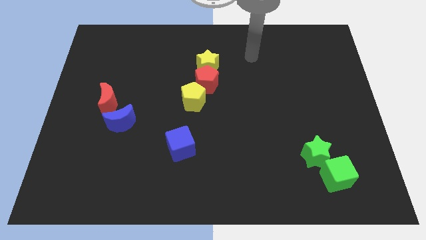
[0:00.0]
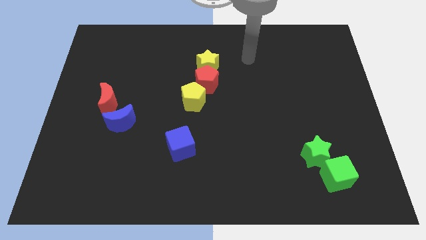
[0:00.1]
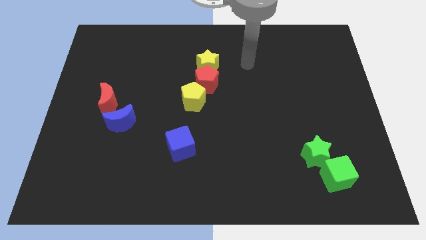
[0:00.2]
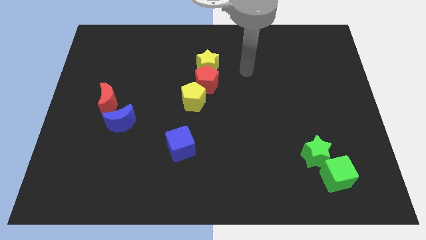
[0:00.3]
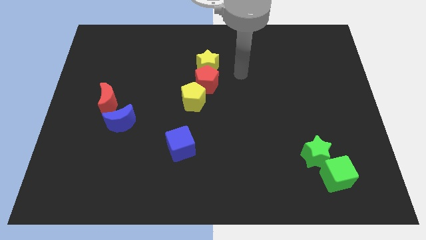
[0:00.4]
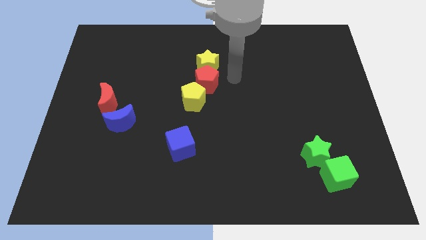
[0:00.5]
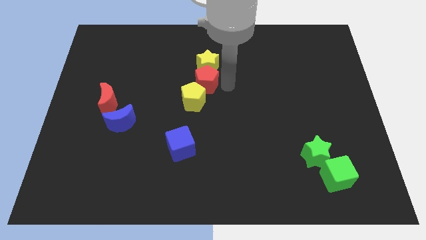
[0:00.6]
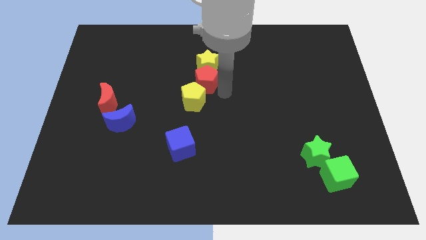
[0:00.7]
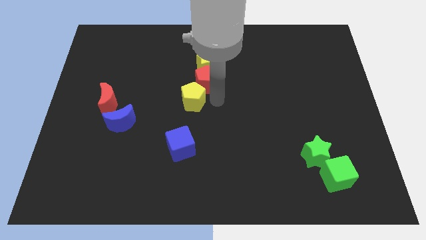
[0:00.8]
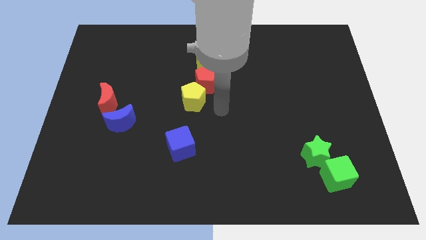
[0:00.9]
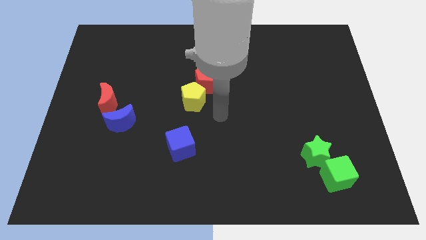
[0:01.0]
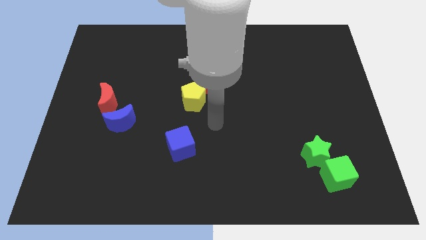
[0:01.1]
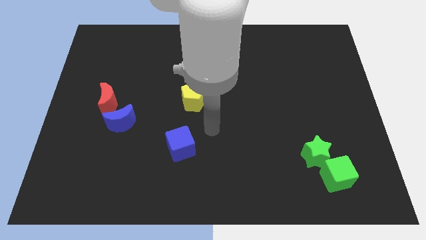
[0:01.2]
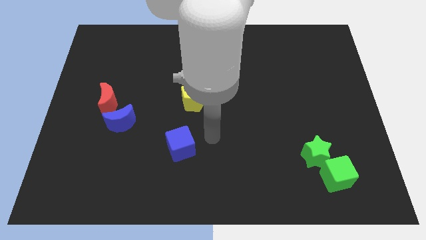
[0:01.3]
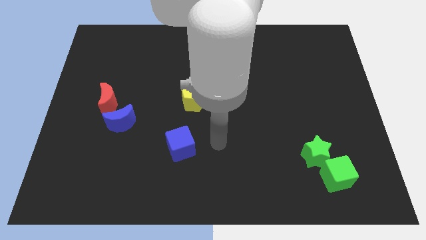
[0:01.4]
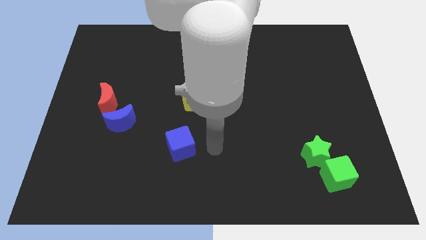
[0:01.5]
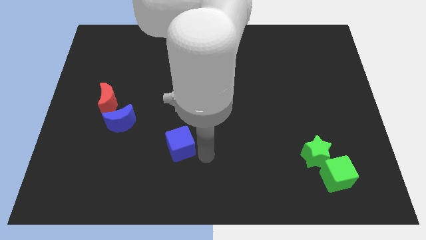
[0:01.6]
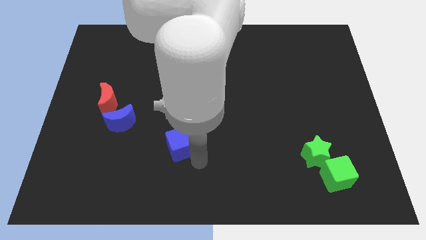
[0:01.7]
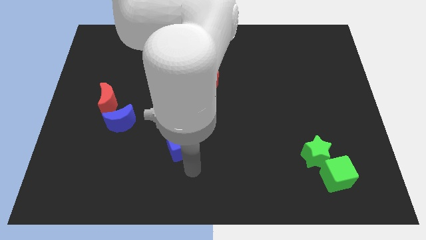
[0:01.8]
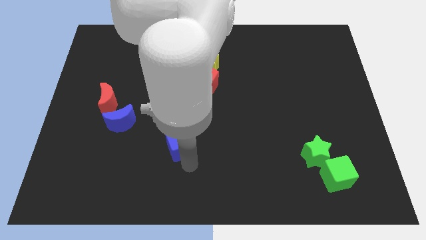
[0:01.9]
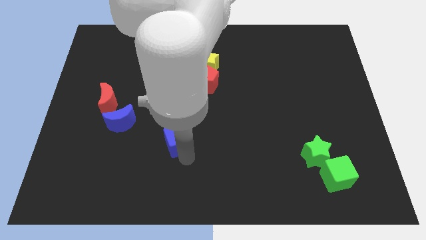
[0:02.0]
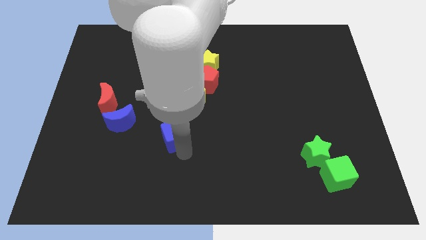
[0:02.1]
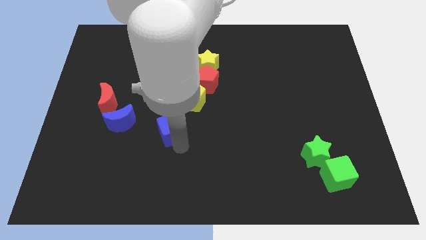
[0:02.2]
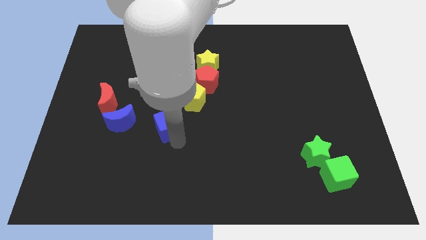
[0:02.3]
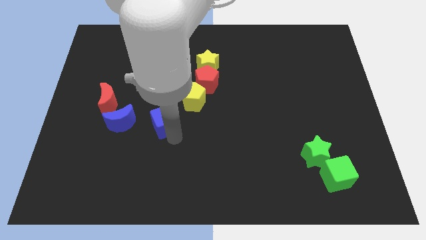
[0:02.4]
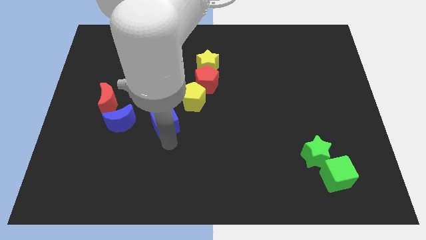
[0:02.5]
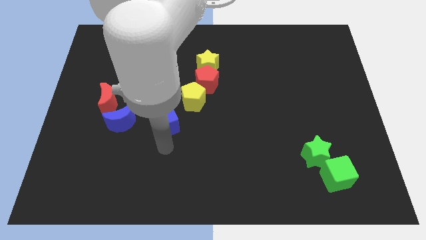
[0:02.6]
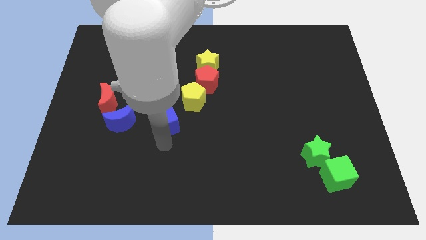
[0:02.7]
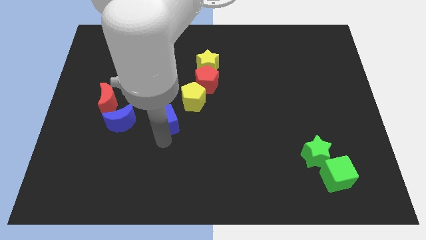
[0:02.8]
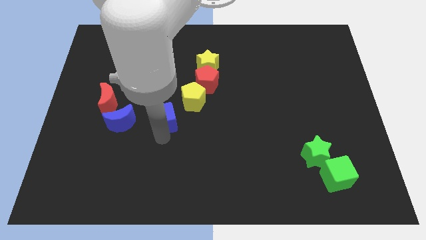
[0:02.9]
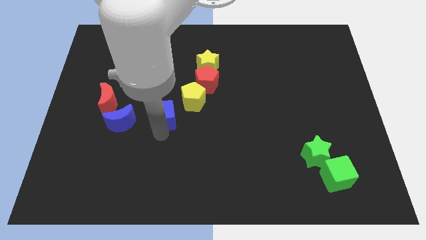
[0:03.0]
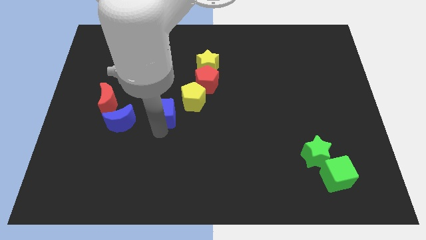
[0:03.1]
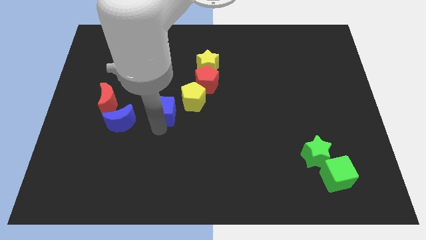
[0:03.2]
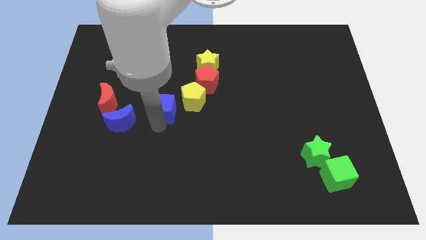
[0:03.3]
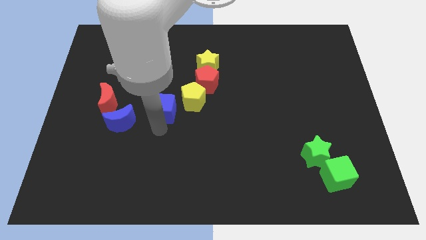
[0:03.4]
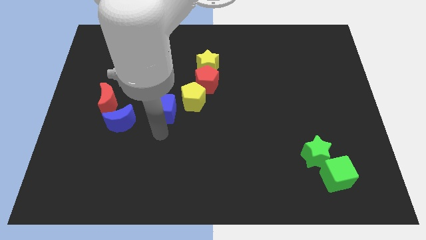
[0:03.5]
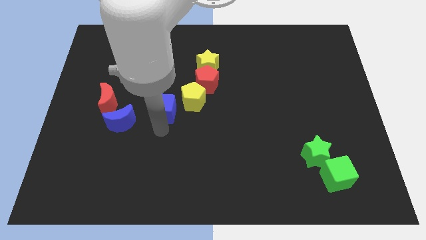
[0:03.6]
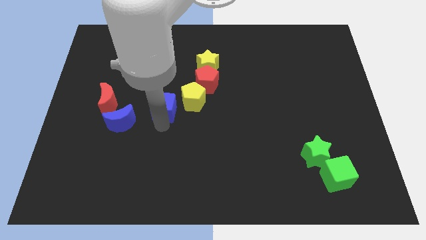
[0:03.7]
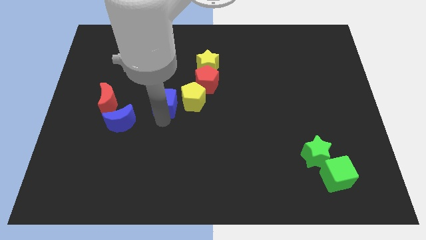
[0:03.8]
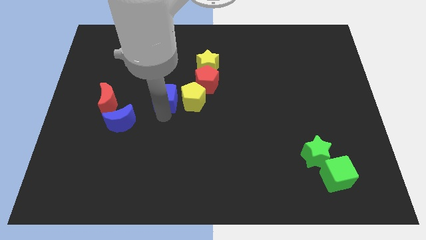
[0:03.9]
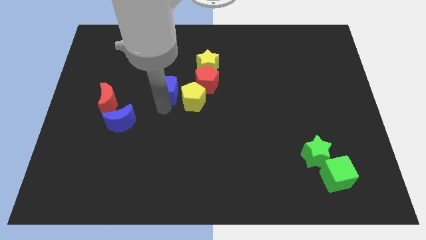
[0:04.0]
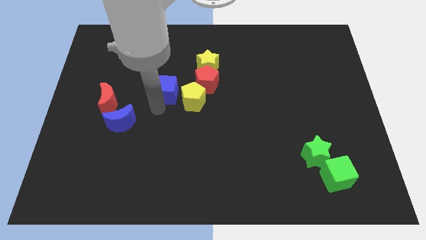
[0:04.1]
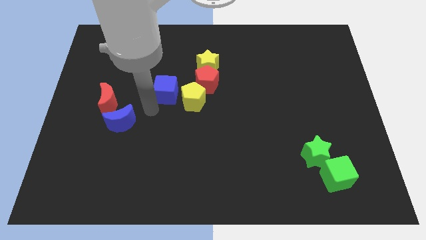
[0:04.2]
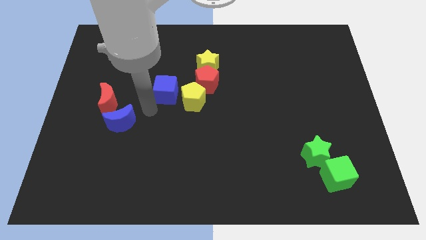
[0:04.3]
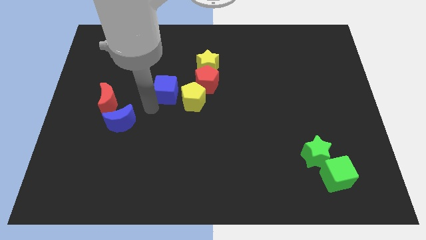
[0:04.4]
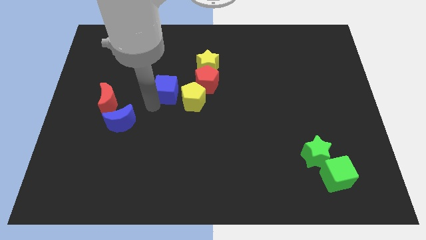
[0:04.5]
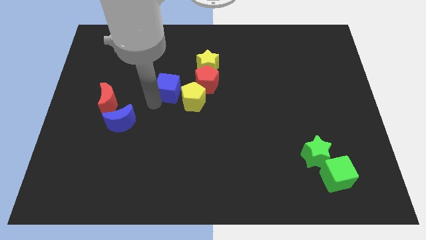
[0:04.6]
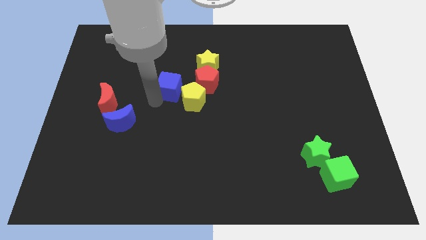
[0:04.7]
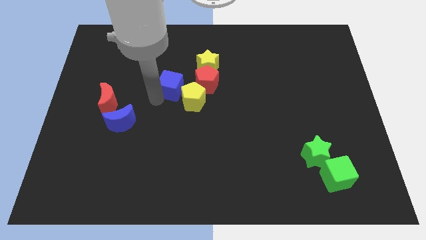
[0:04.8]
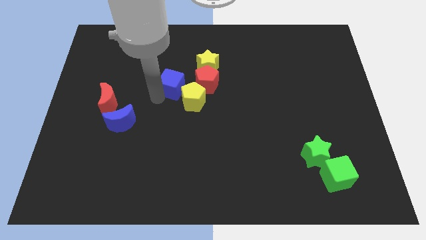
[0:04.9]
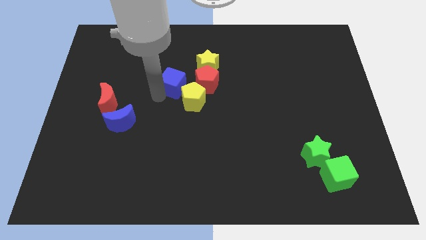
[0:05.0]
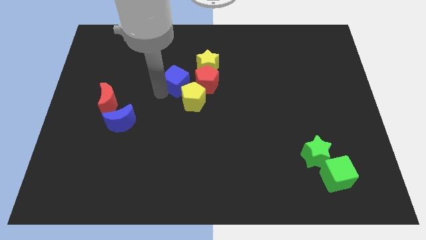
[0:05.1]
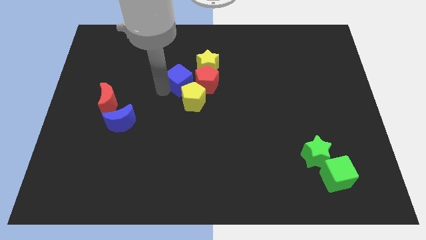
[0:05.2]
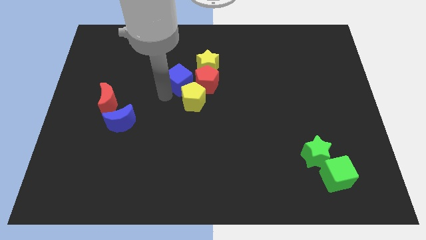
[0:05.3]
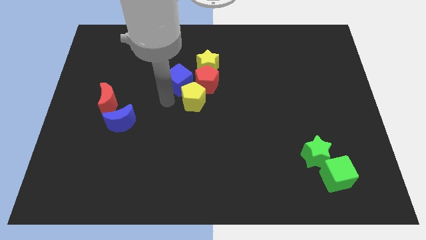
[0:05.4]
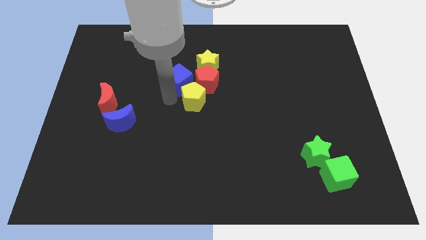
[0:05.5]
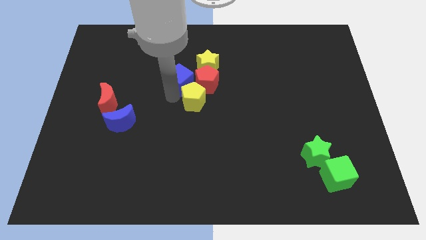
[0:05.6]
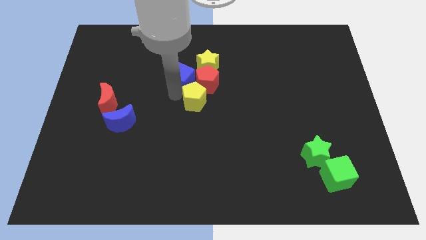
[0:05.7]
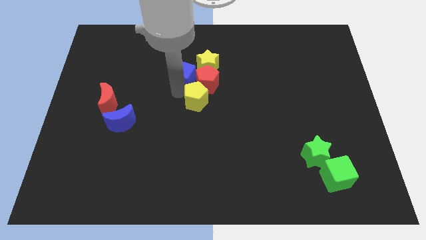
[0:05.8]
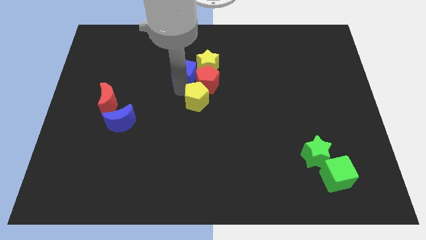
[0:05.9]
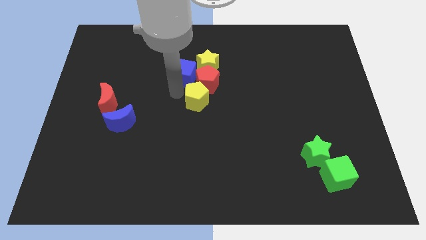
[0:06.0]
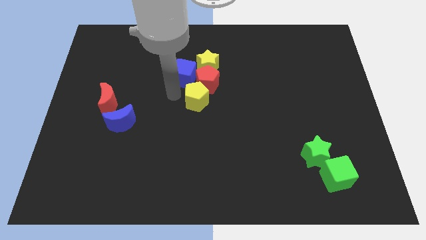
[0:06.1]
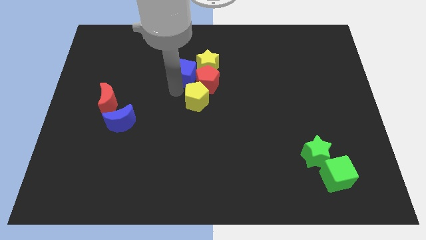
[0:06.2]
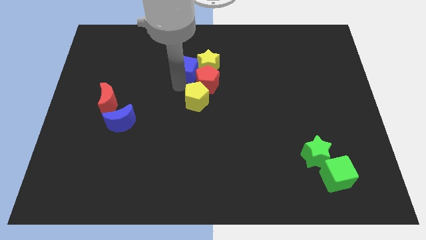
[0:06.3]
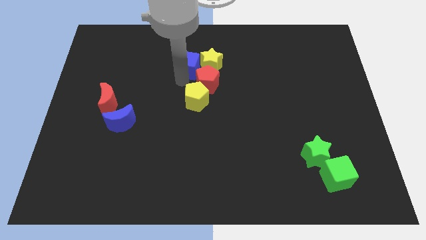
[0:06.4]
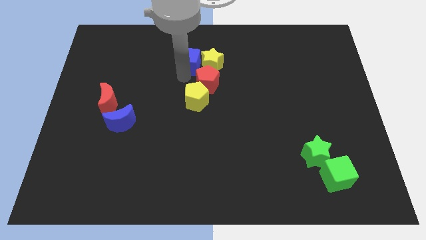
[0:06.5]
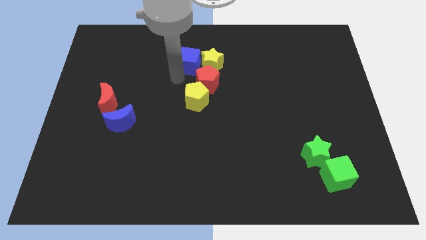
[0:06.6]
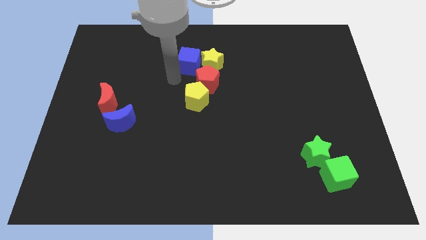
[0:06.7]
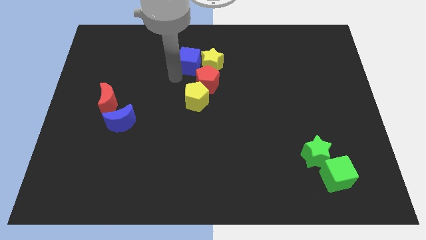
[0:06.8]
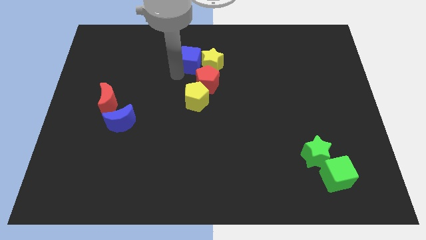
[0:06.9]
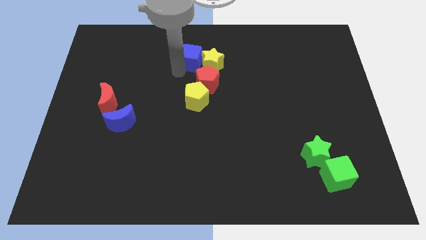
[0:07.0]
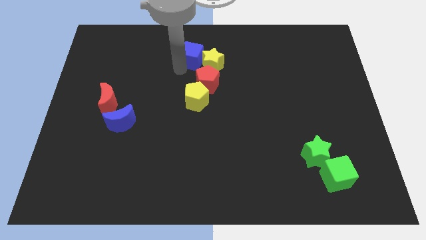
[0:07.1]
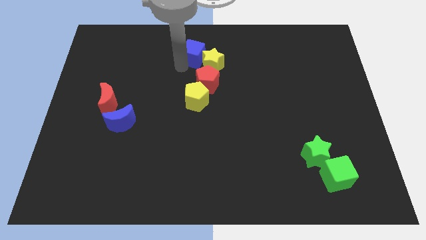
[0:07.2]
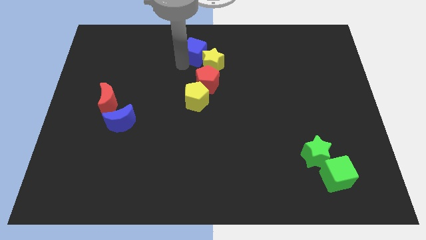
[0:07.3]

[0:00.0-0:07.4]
move the blue cube to the top side
